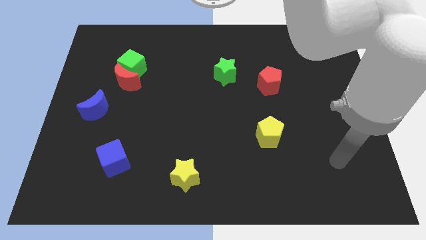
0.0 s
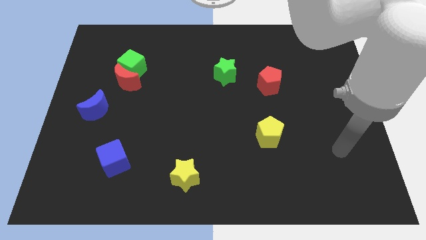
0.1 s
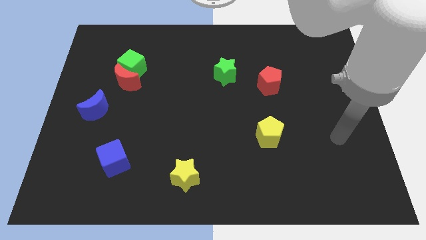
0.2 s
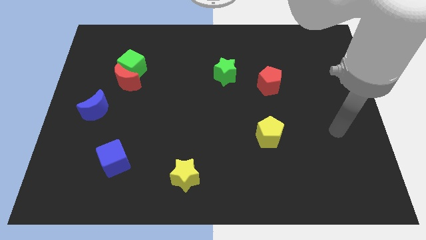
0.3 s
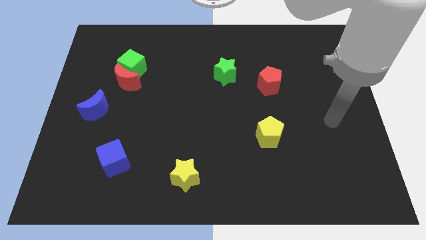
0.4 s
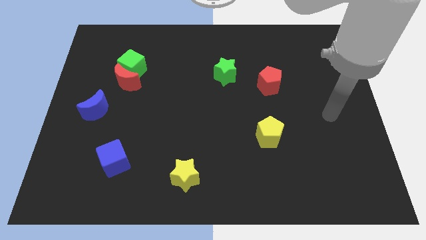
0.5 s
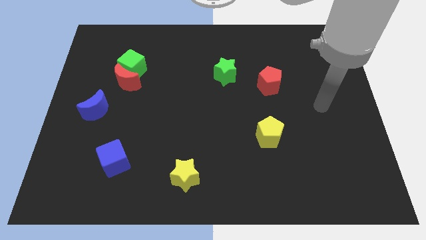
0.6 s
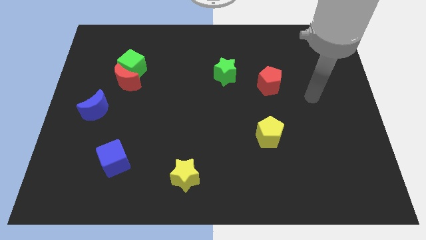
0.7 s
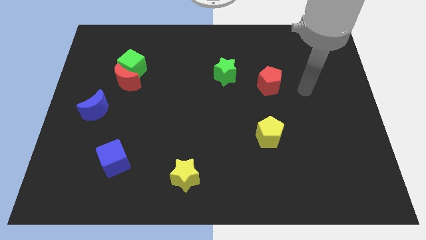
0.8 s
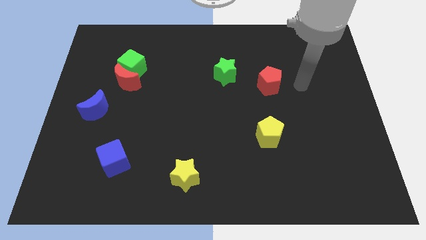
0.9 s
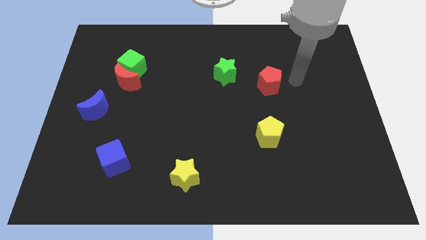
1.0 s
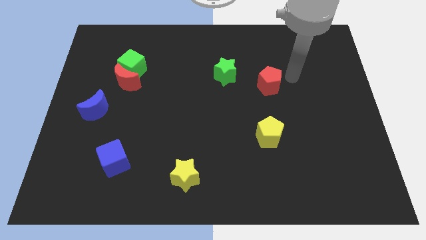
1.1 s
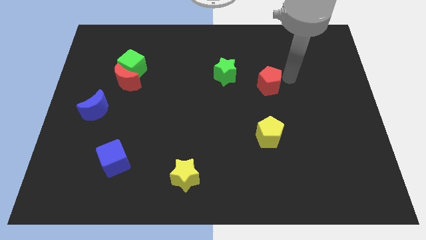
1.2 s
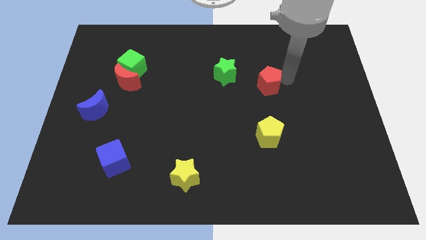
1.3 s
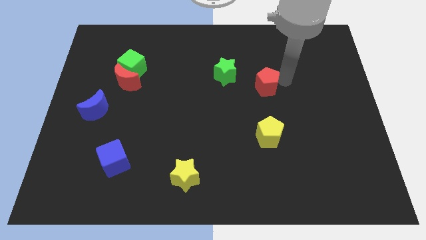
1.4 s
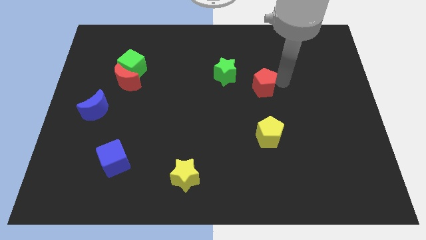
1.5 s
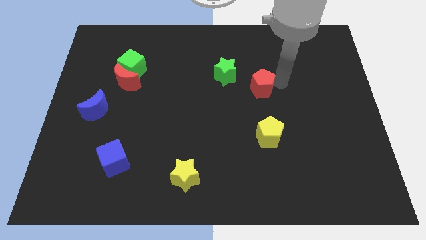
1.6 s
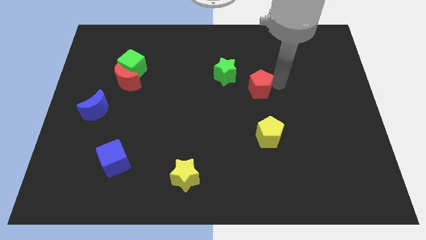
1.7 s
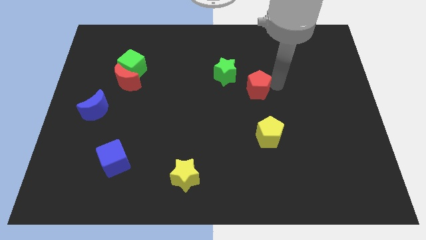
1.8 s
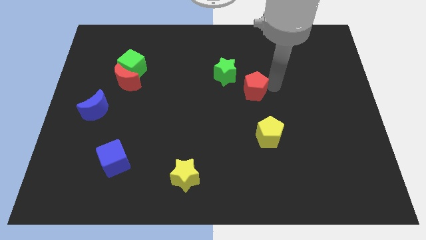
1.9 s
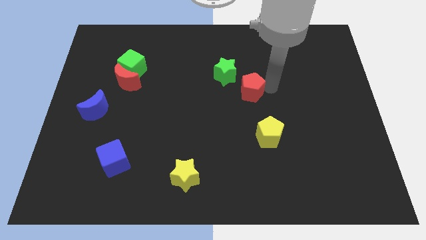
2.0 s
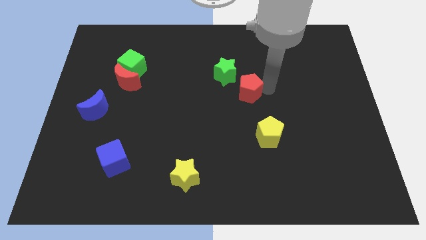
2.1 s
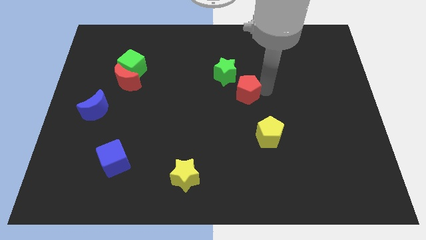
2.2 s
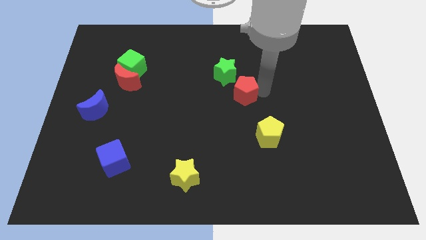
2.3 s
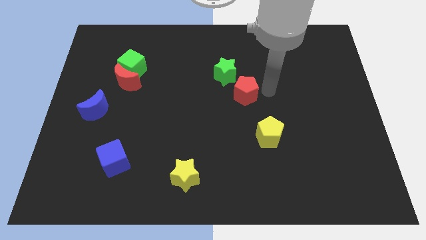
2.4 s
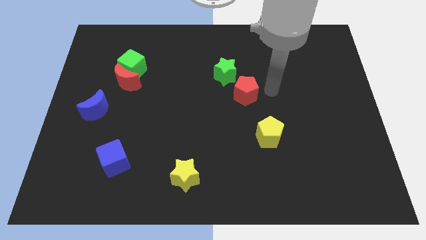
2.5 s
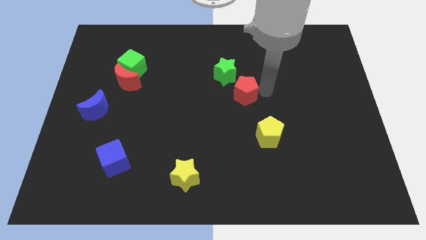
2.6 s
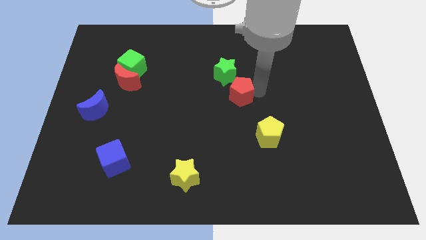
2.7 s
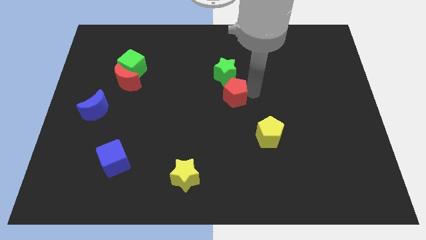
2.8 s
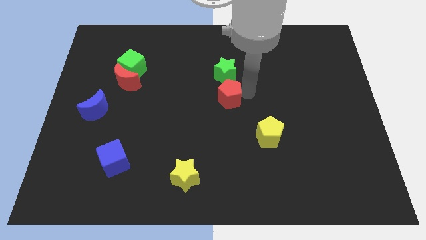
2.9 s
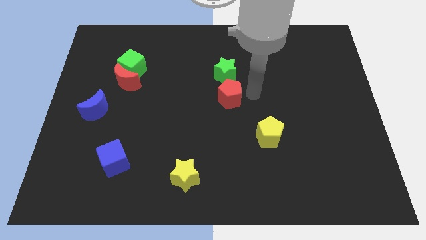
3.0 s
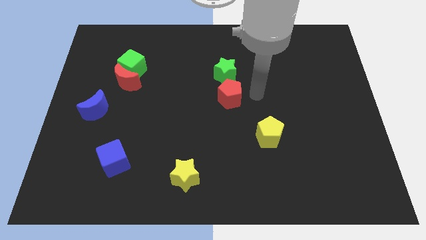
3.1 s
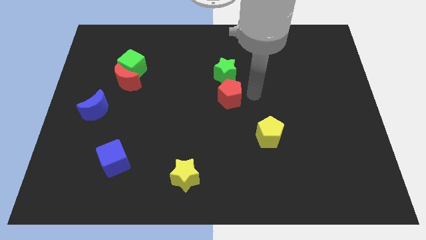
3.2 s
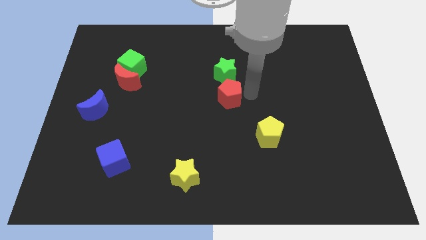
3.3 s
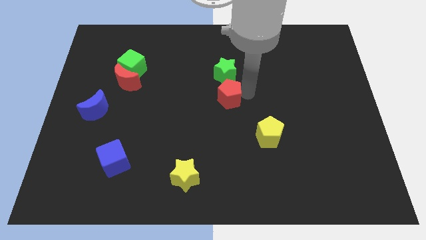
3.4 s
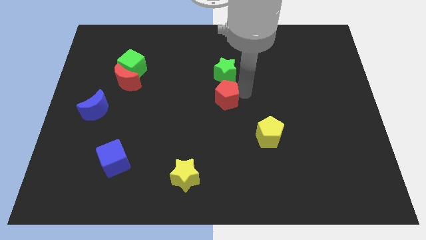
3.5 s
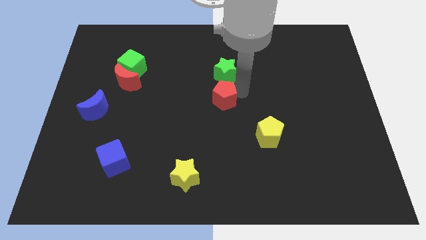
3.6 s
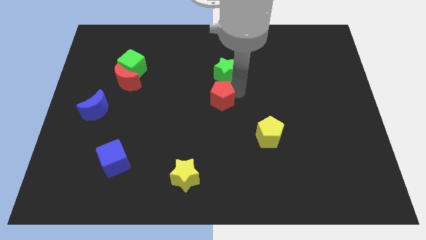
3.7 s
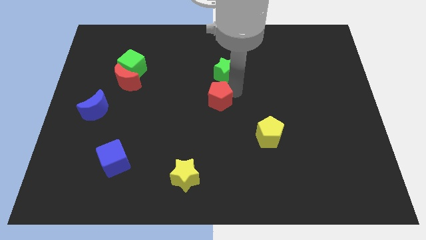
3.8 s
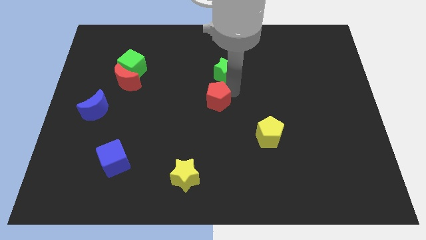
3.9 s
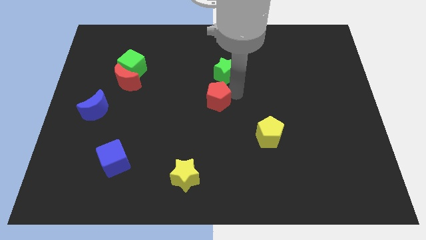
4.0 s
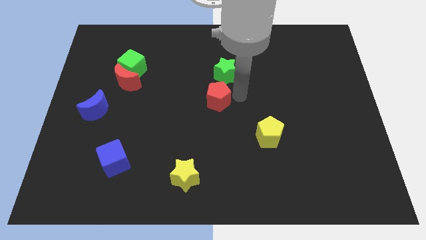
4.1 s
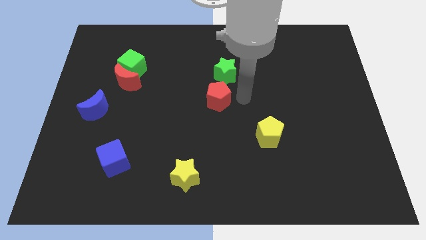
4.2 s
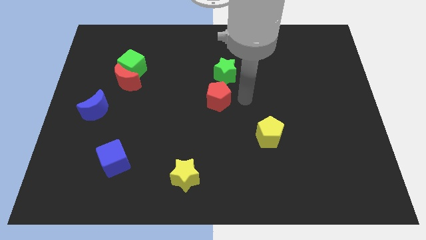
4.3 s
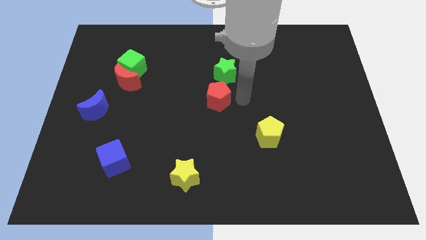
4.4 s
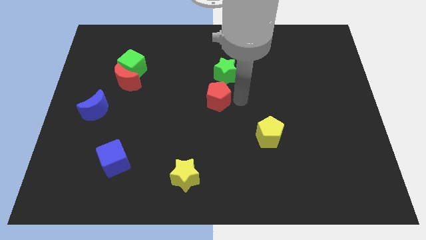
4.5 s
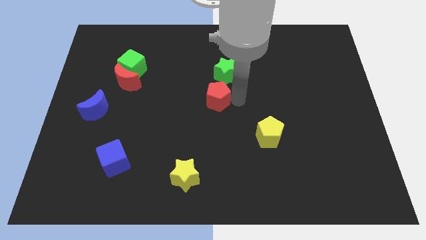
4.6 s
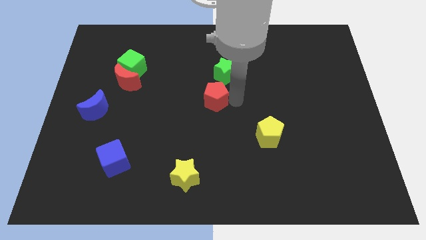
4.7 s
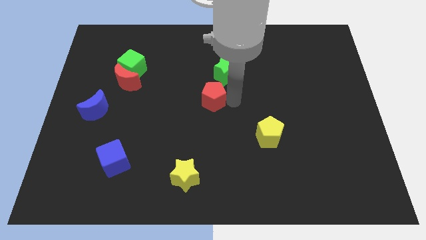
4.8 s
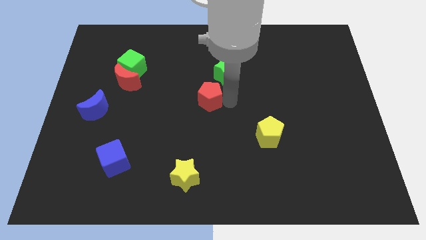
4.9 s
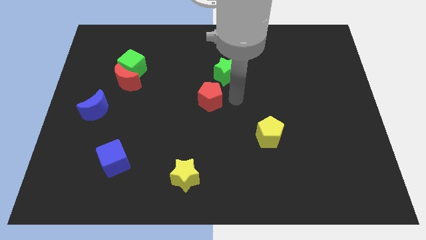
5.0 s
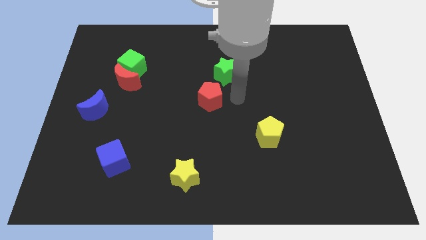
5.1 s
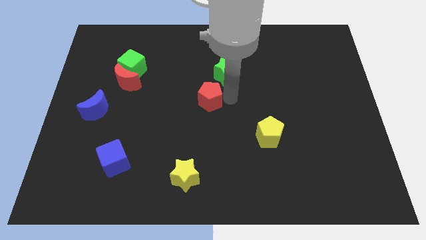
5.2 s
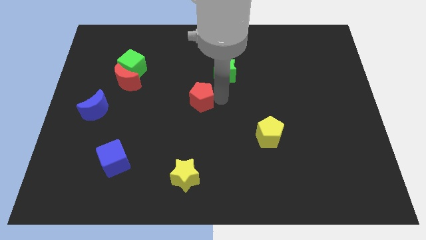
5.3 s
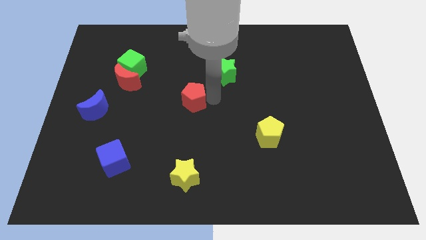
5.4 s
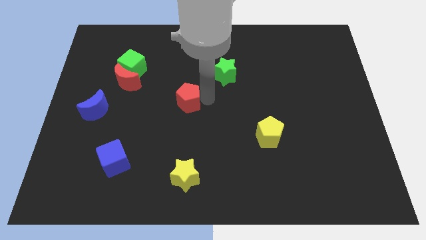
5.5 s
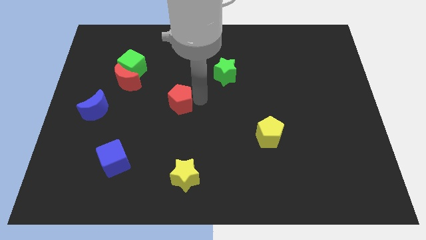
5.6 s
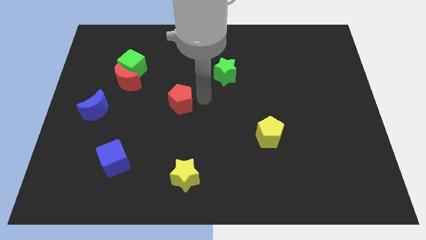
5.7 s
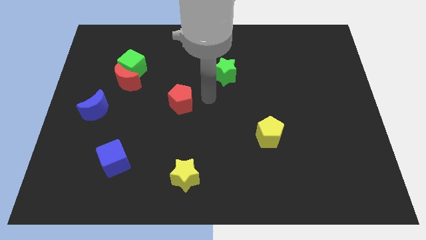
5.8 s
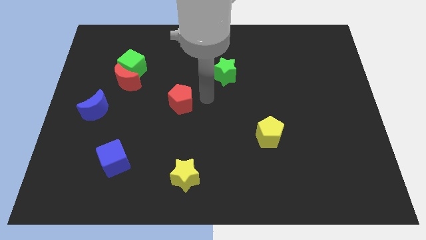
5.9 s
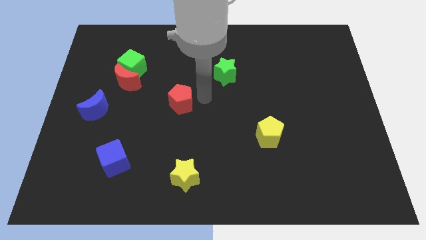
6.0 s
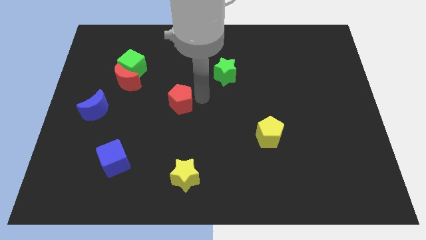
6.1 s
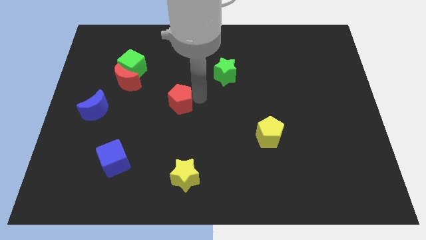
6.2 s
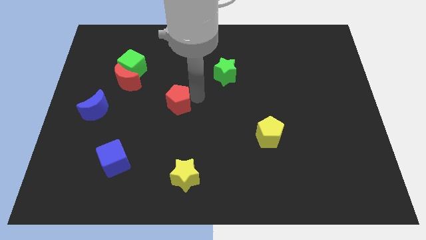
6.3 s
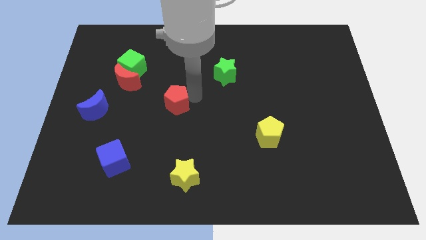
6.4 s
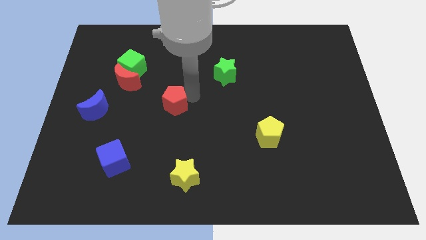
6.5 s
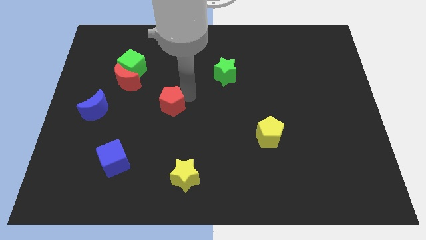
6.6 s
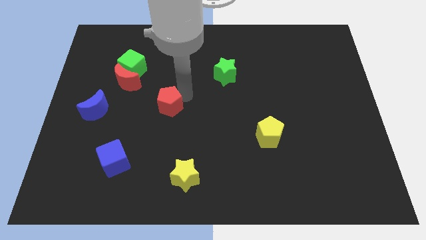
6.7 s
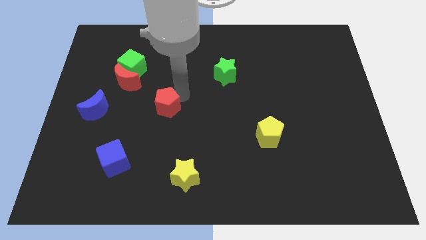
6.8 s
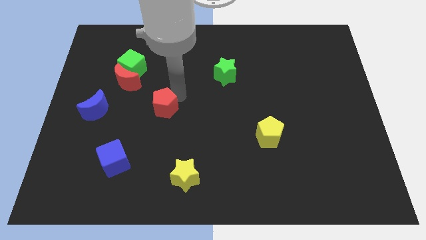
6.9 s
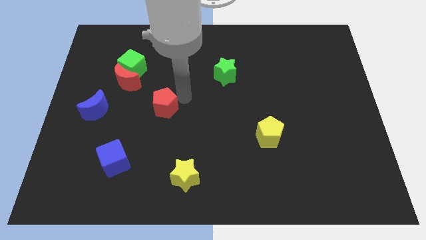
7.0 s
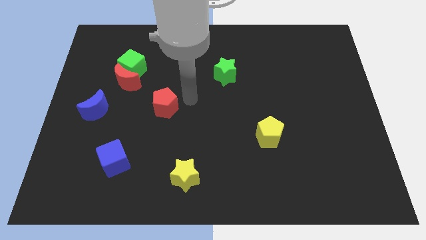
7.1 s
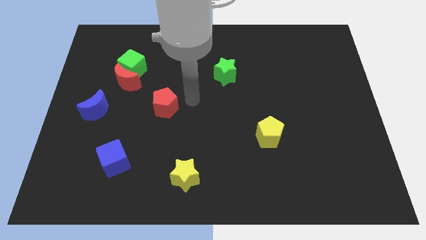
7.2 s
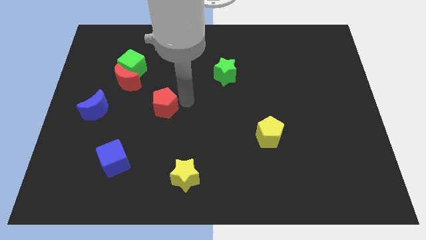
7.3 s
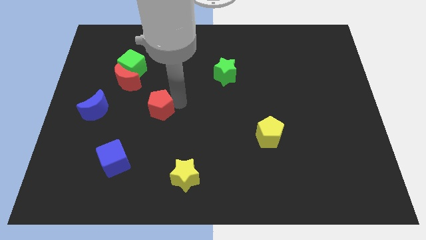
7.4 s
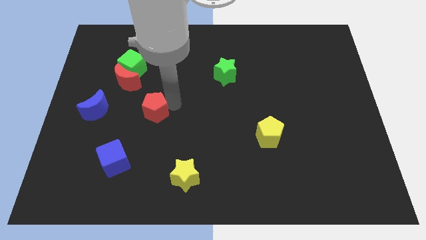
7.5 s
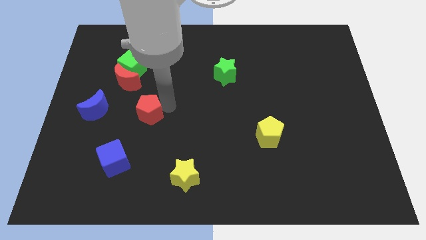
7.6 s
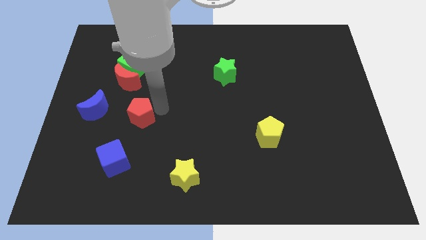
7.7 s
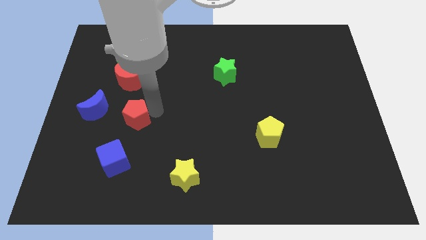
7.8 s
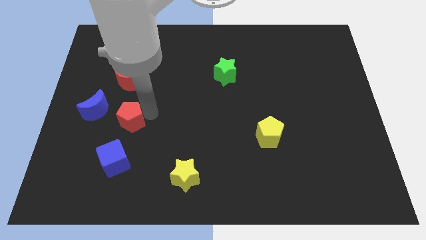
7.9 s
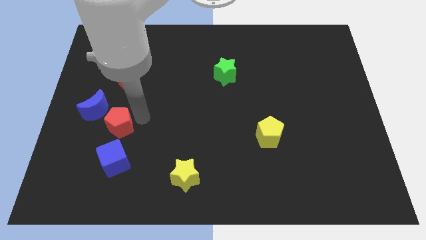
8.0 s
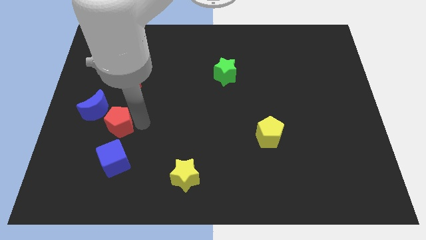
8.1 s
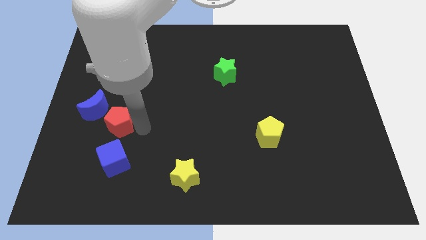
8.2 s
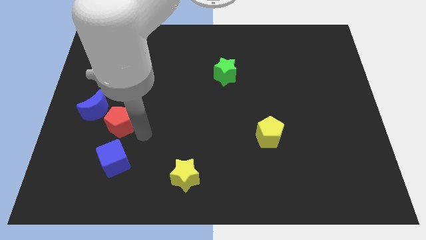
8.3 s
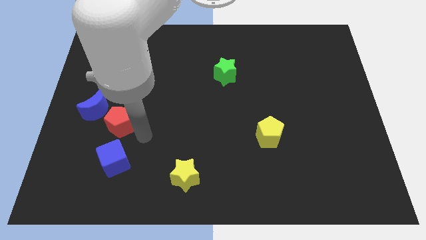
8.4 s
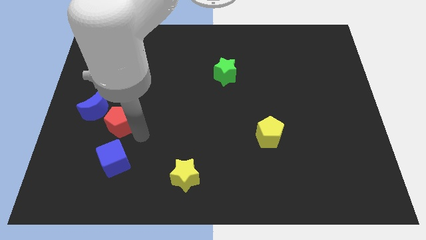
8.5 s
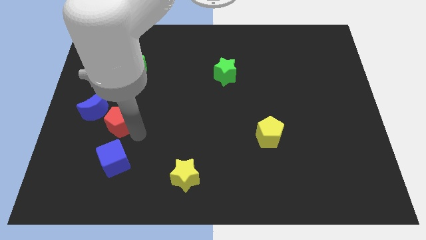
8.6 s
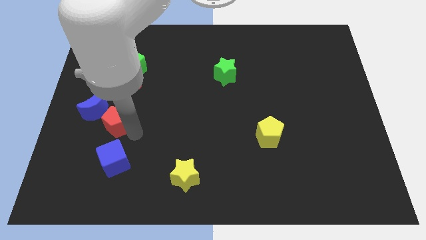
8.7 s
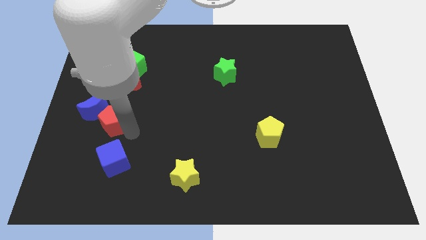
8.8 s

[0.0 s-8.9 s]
push the red pentagon next to the blue moon
